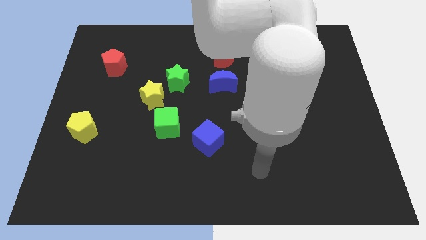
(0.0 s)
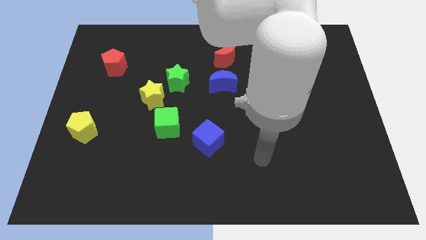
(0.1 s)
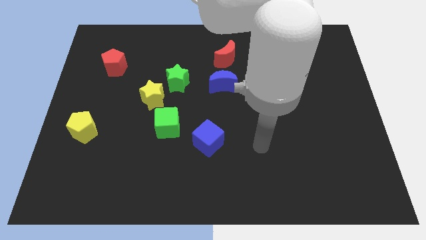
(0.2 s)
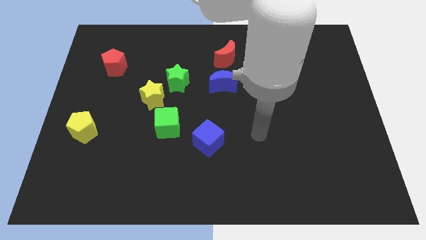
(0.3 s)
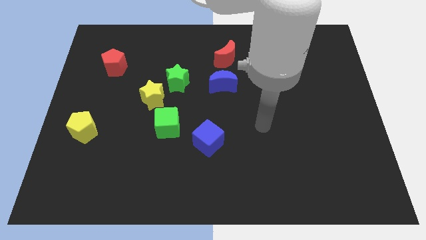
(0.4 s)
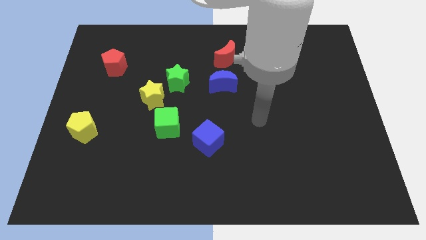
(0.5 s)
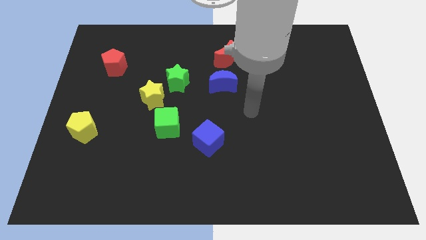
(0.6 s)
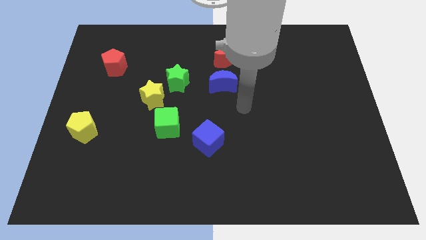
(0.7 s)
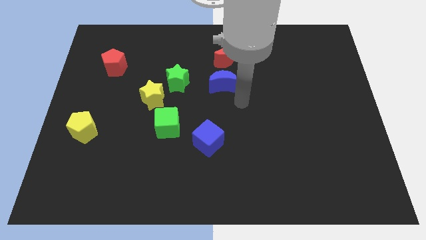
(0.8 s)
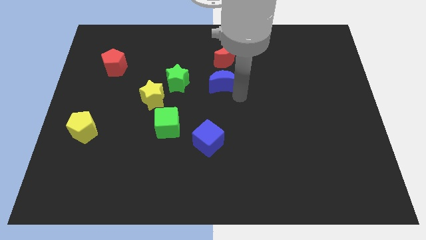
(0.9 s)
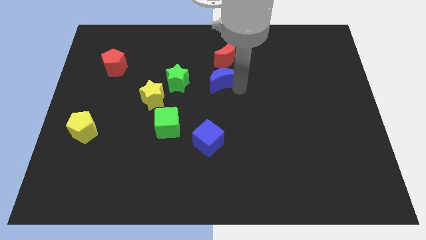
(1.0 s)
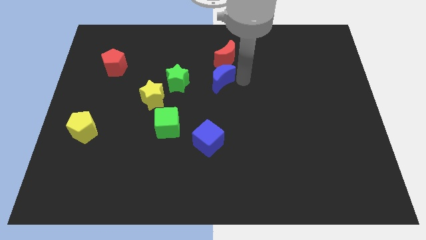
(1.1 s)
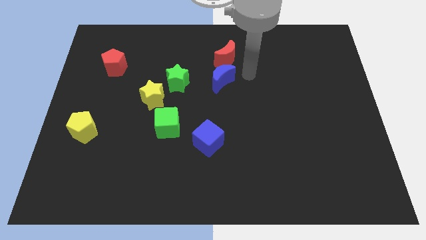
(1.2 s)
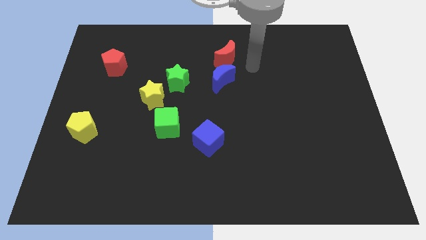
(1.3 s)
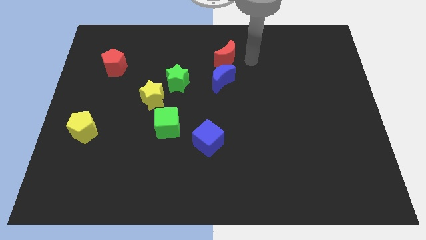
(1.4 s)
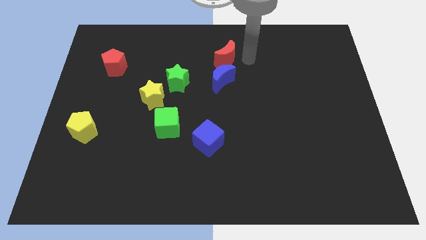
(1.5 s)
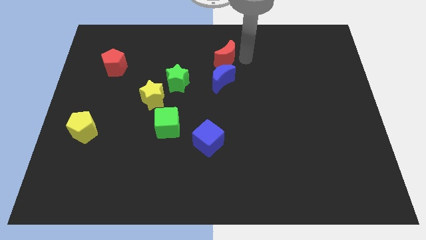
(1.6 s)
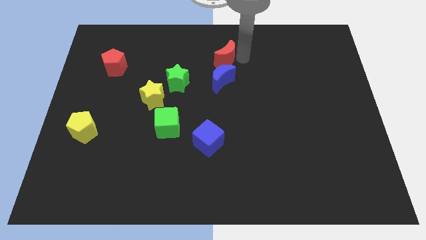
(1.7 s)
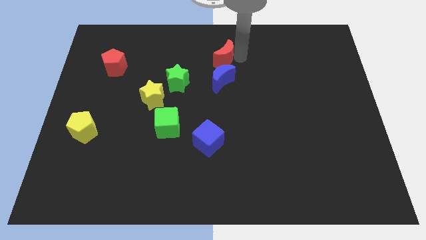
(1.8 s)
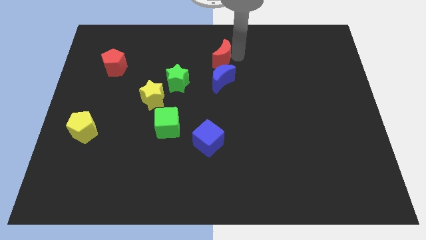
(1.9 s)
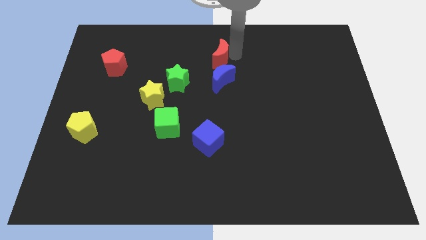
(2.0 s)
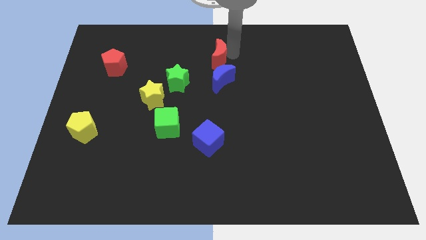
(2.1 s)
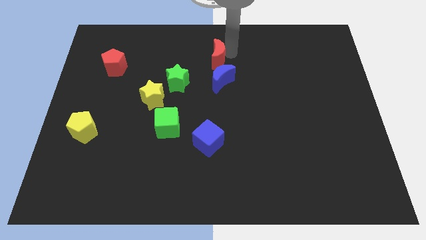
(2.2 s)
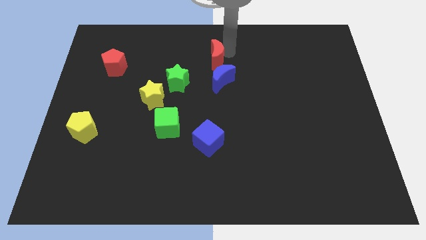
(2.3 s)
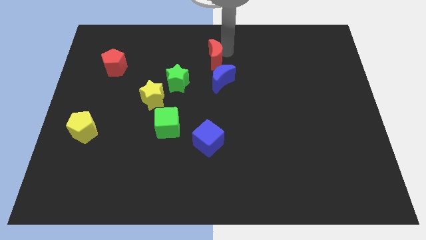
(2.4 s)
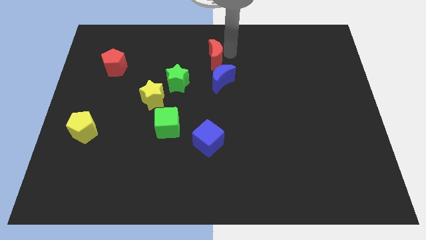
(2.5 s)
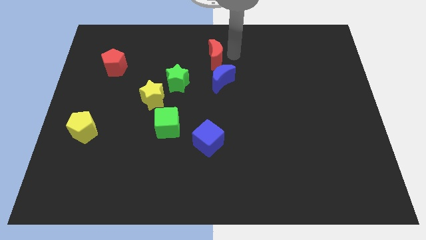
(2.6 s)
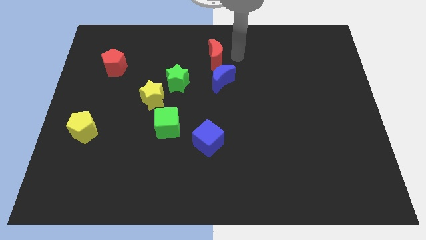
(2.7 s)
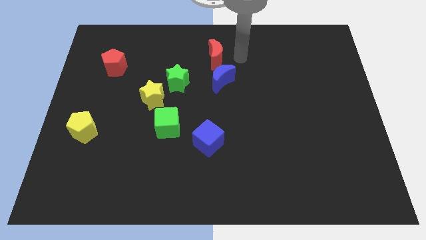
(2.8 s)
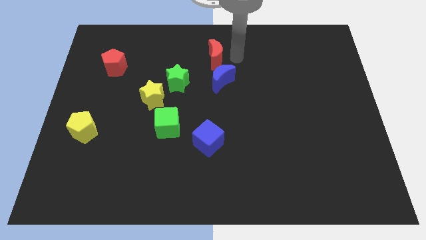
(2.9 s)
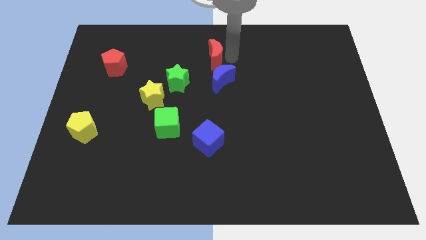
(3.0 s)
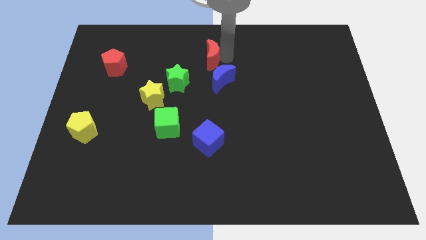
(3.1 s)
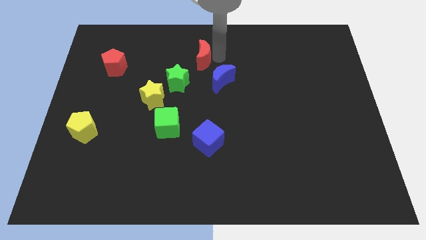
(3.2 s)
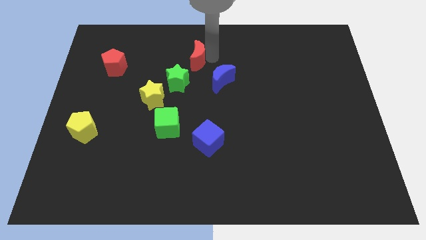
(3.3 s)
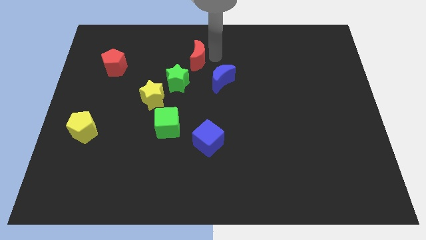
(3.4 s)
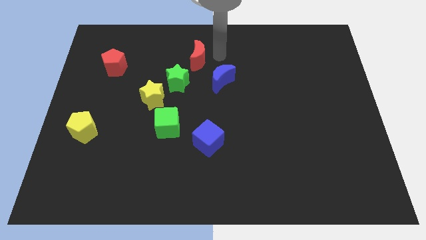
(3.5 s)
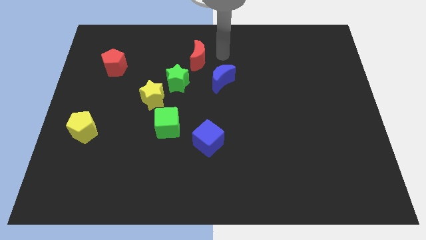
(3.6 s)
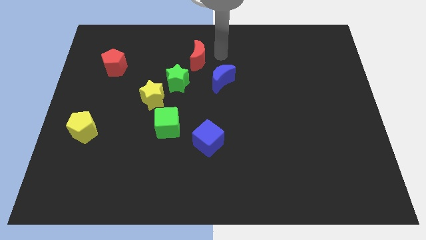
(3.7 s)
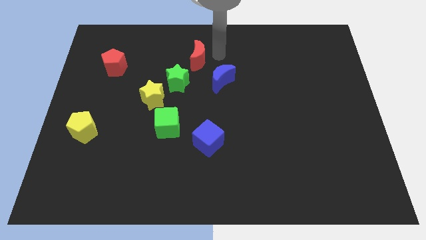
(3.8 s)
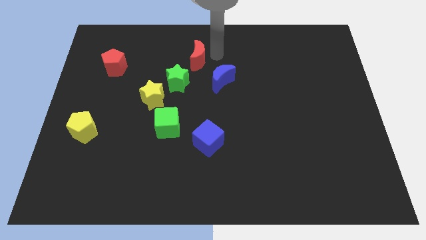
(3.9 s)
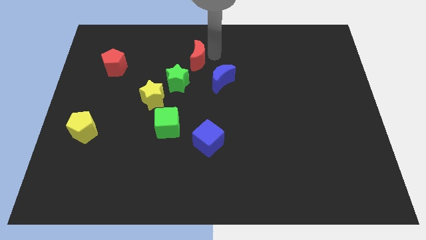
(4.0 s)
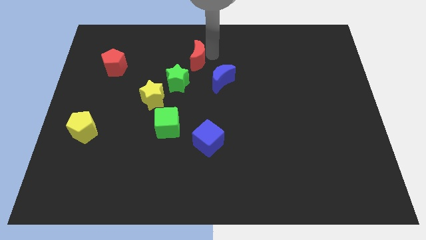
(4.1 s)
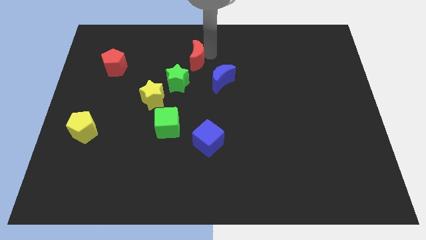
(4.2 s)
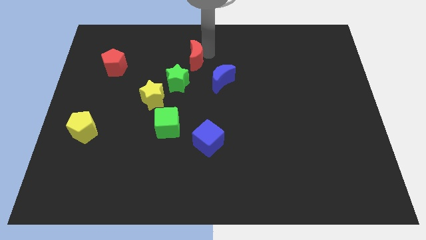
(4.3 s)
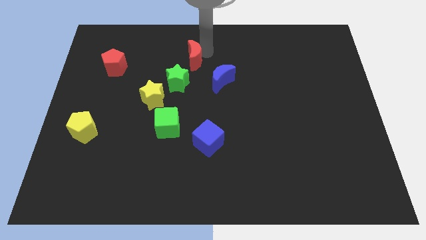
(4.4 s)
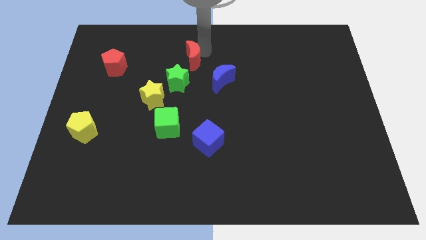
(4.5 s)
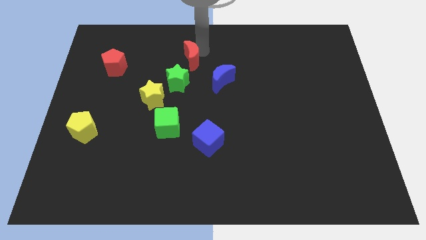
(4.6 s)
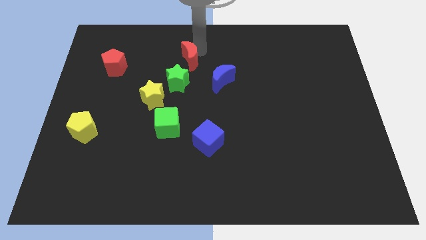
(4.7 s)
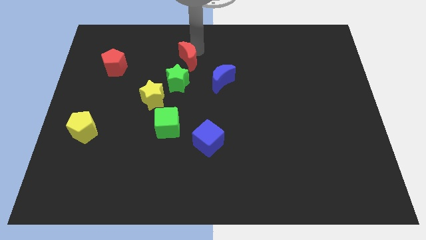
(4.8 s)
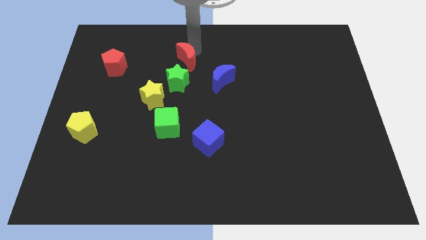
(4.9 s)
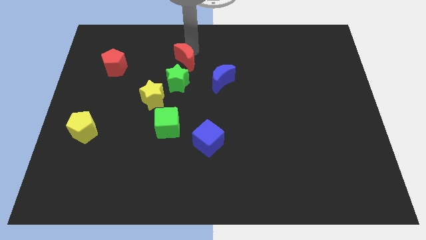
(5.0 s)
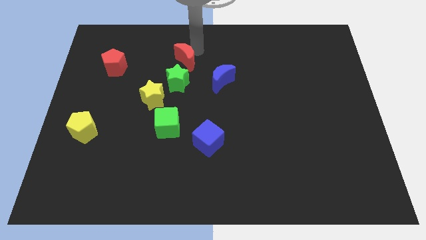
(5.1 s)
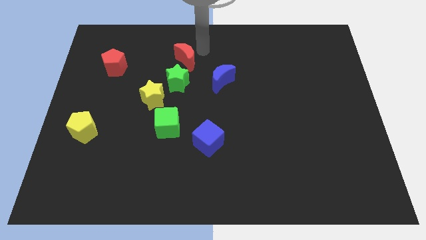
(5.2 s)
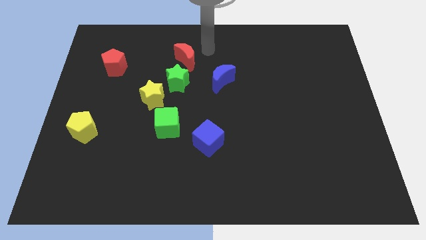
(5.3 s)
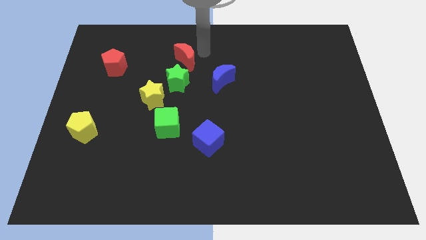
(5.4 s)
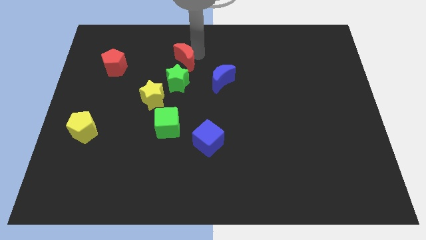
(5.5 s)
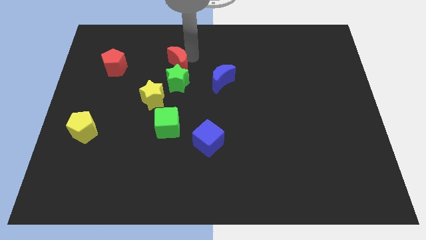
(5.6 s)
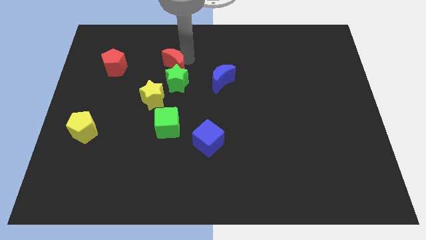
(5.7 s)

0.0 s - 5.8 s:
slide the red moon just right of the red pentagon
